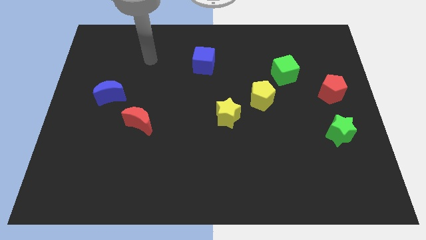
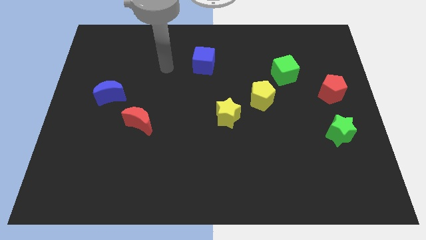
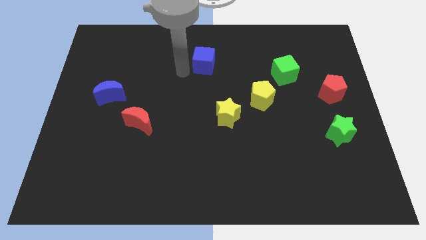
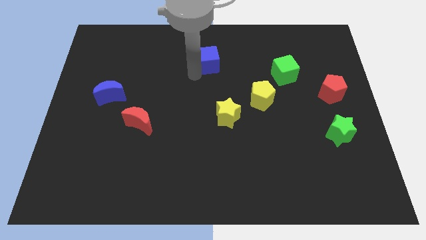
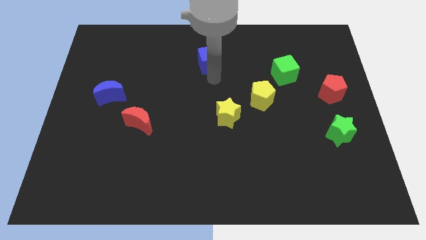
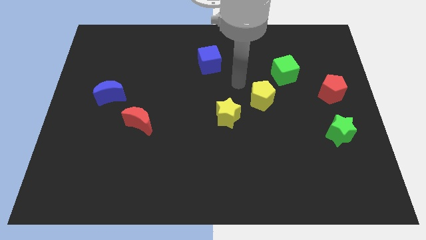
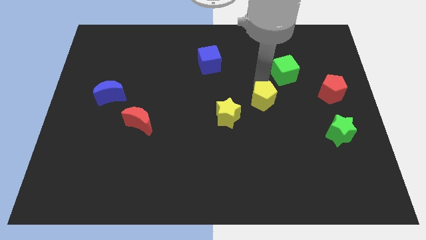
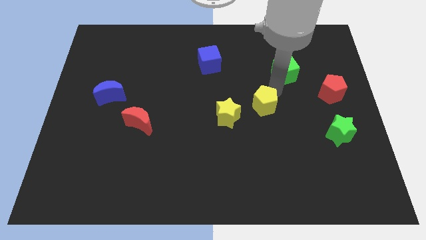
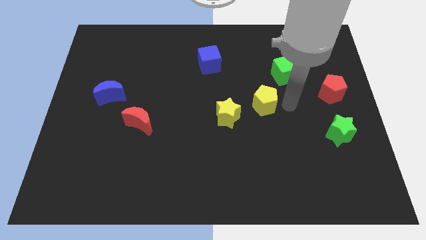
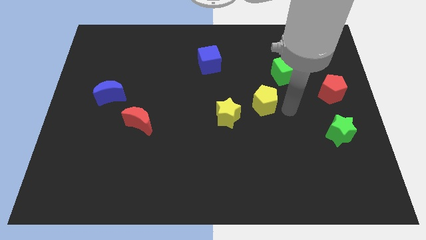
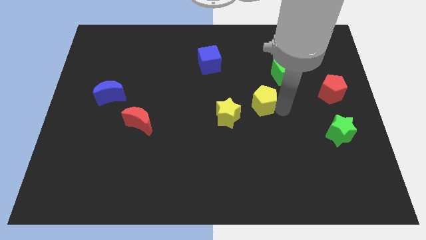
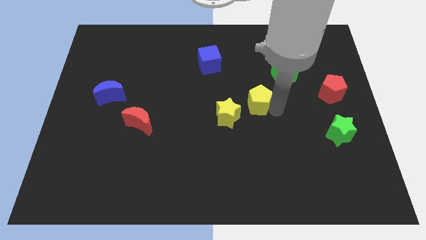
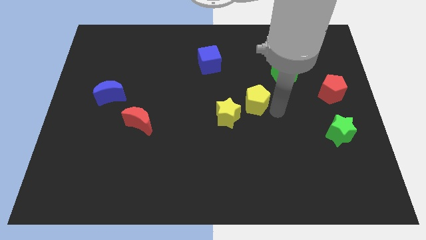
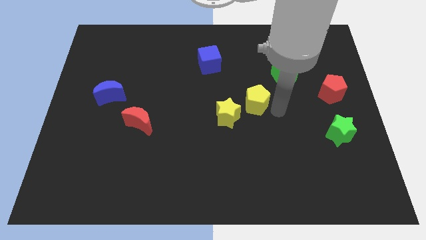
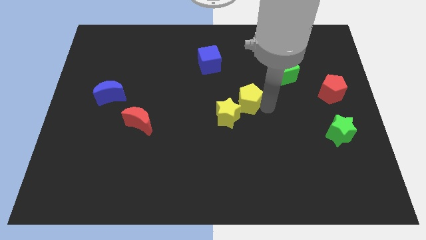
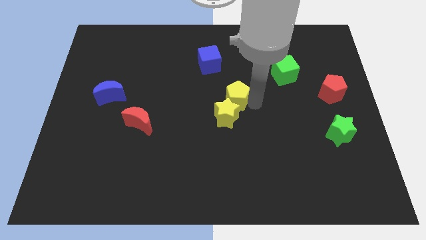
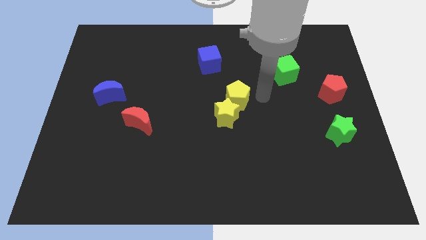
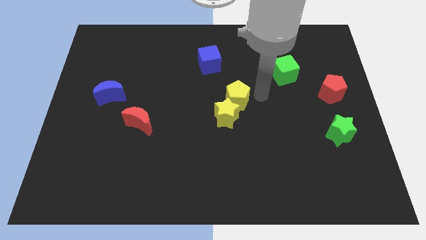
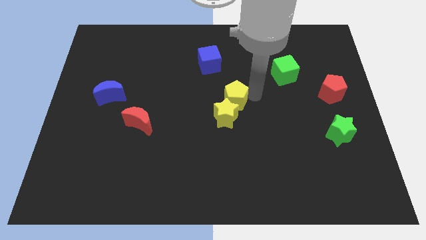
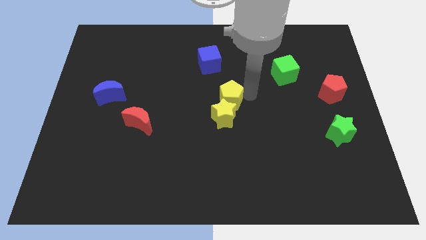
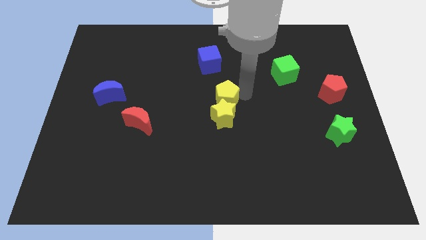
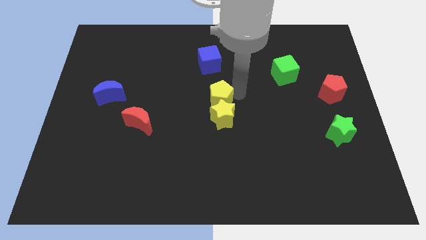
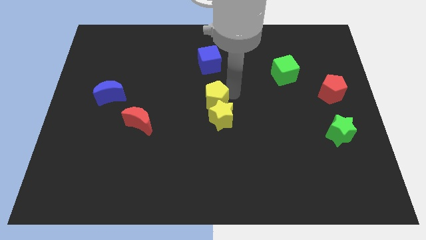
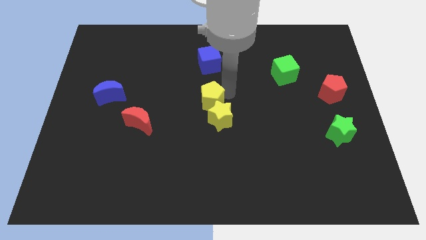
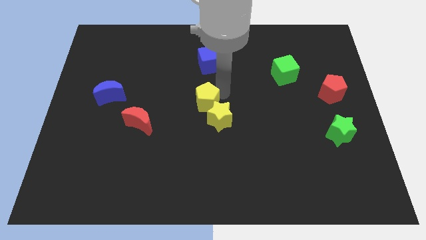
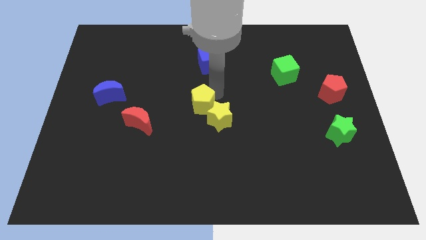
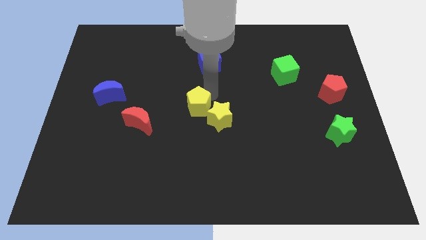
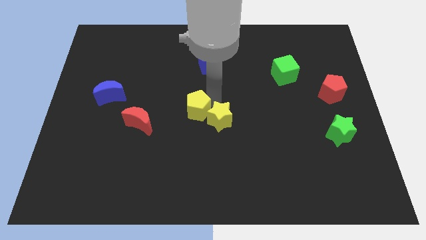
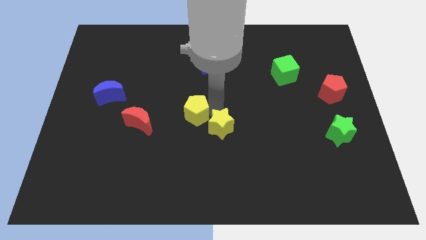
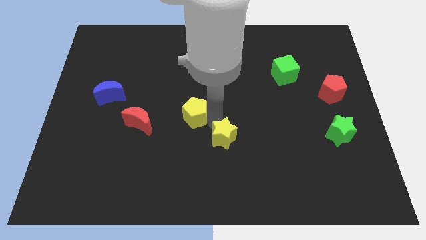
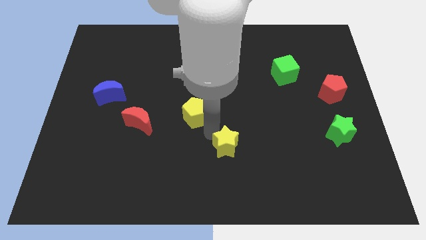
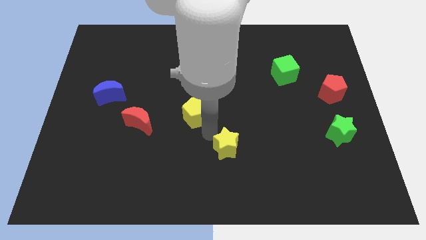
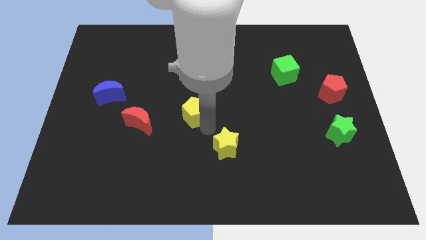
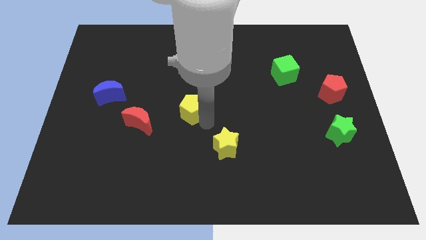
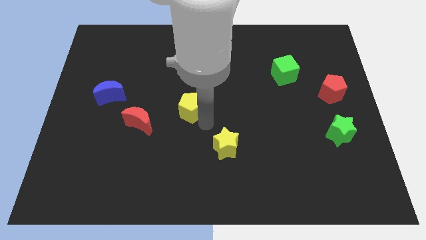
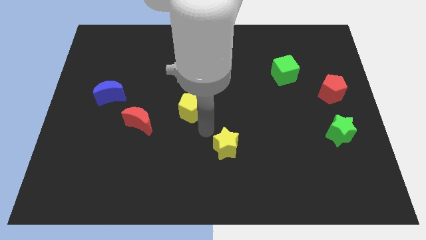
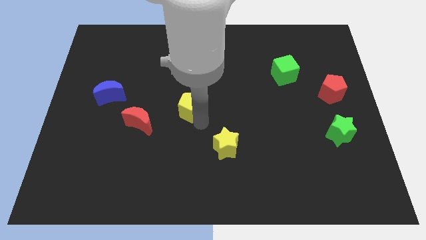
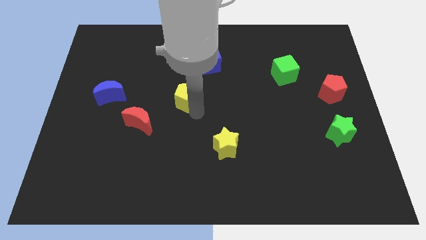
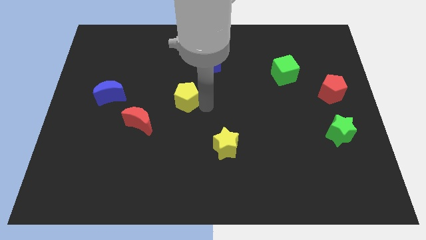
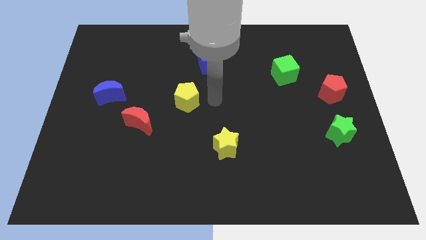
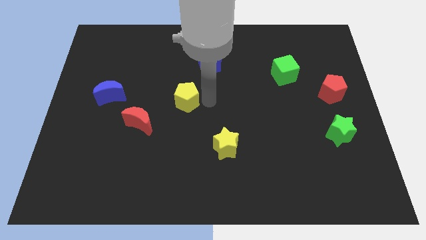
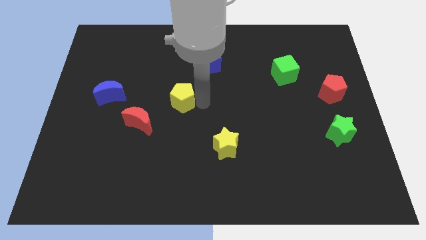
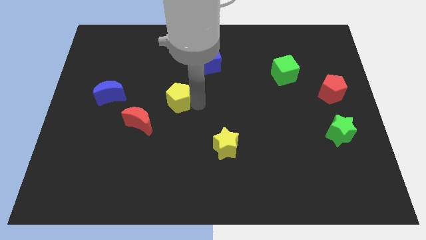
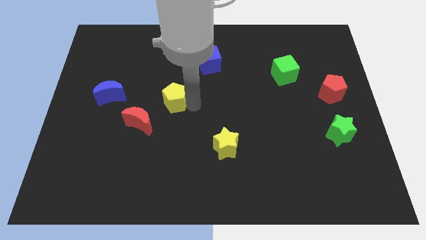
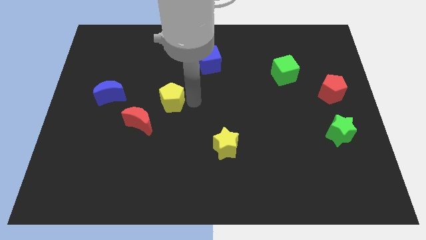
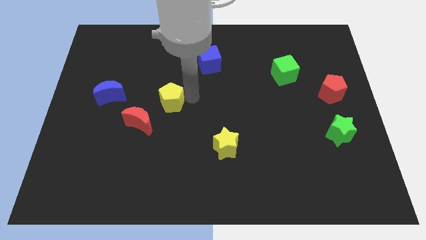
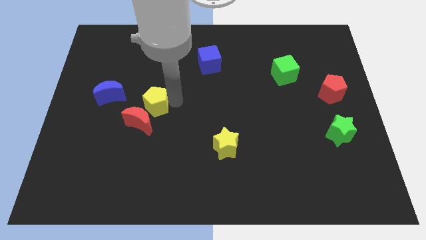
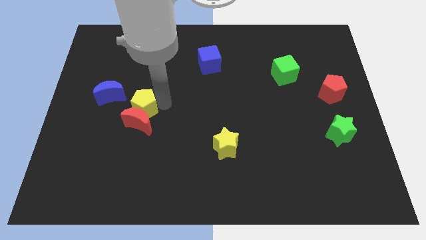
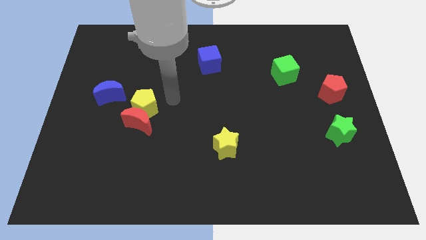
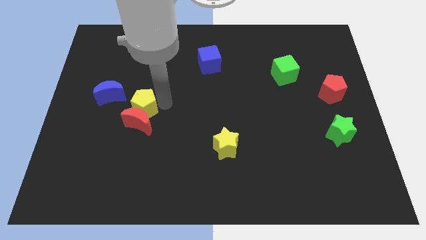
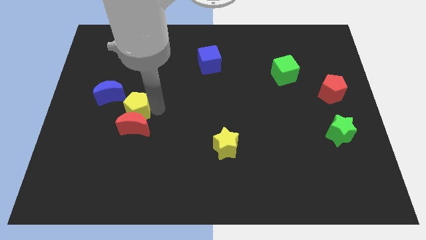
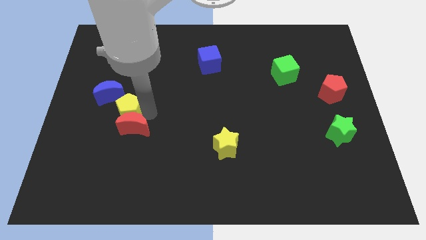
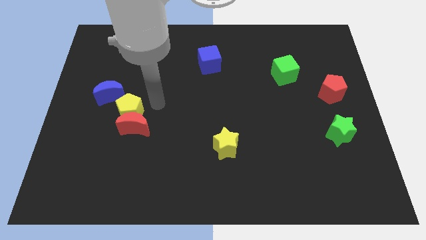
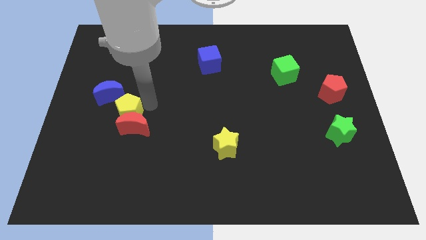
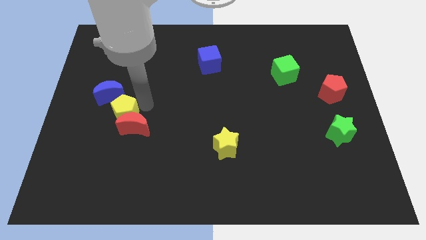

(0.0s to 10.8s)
push the yellow pentagon to the left side of the red moon

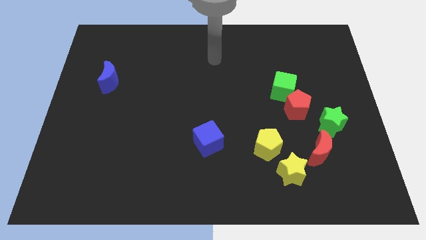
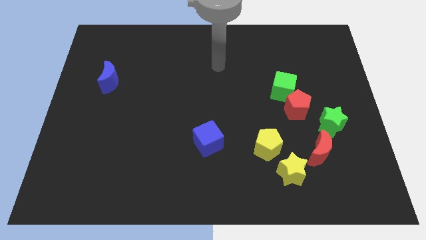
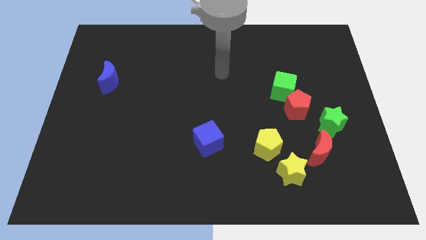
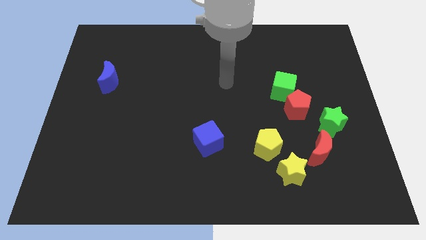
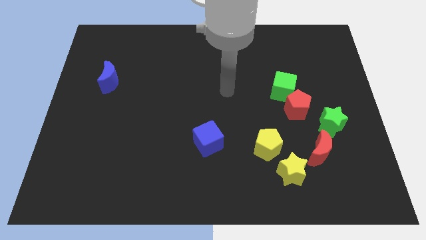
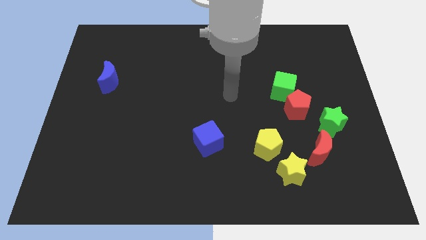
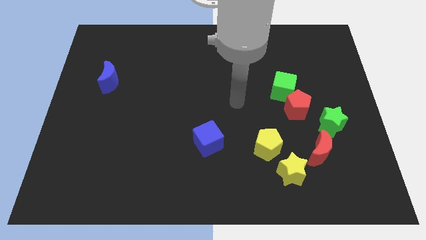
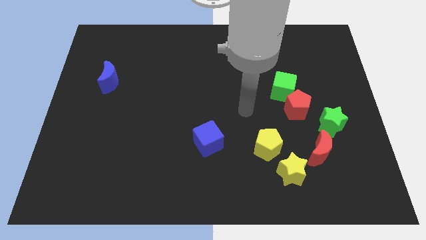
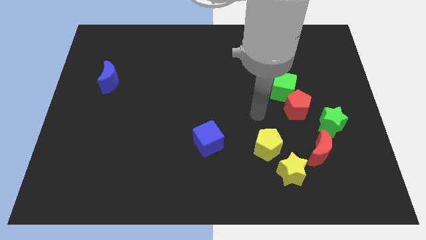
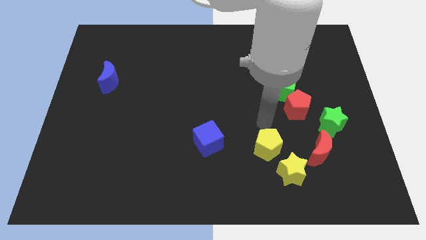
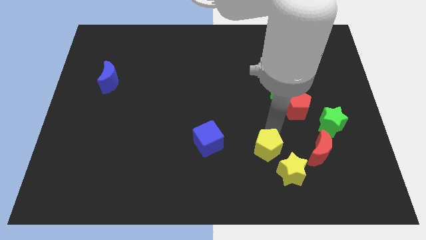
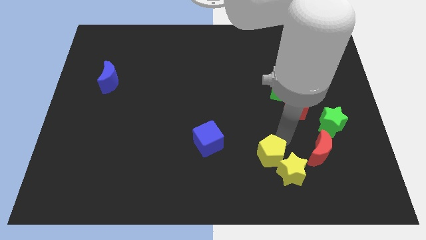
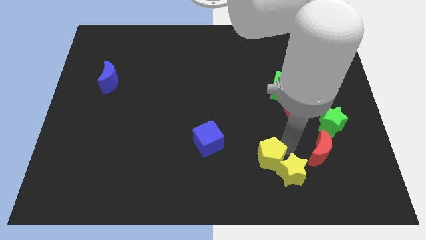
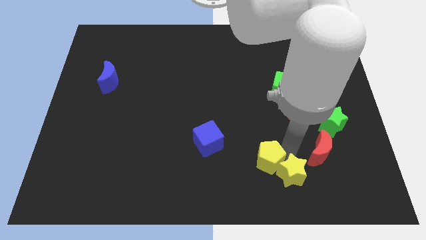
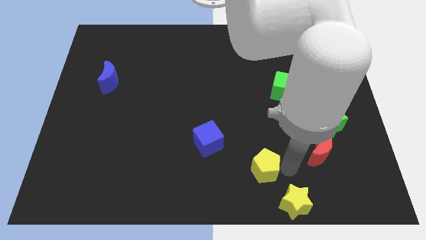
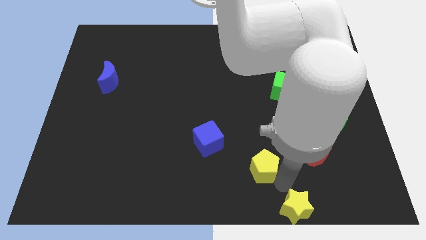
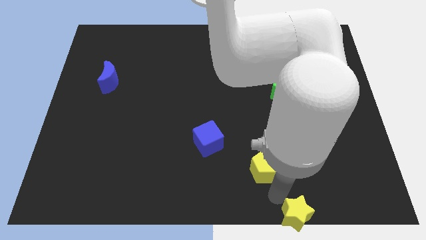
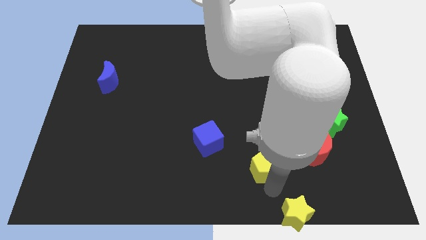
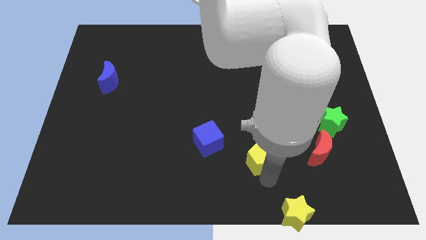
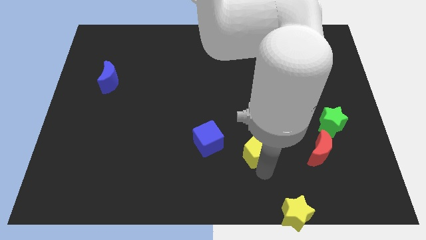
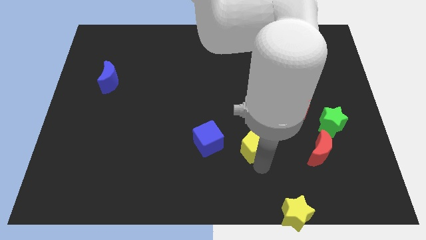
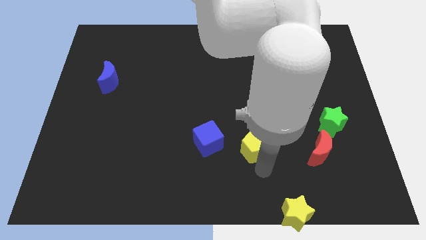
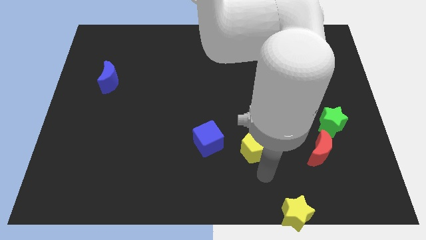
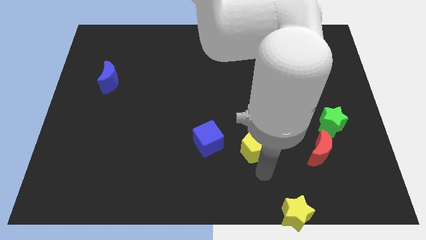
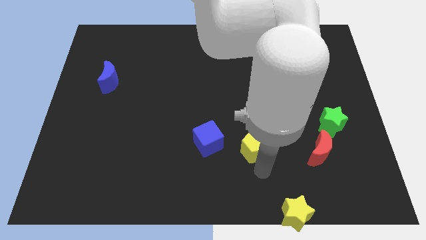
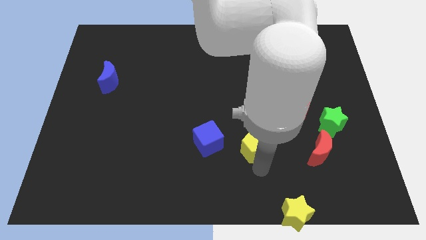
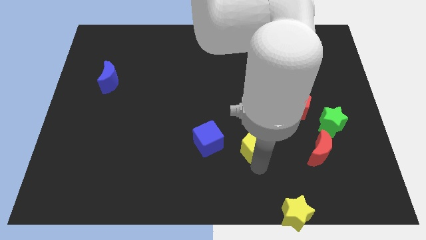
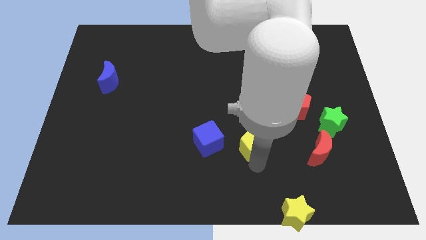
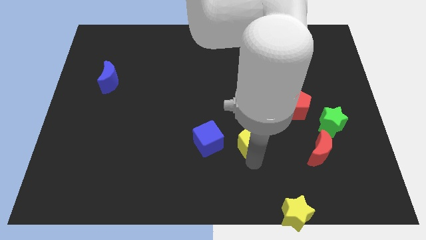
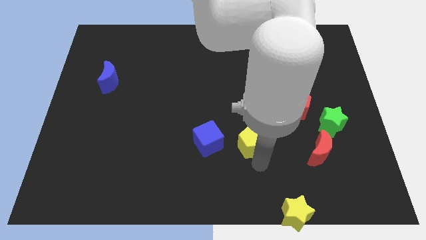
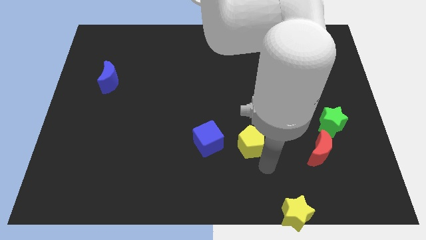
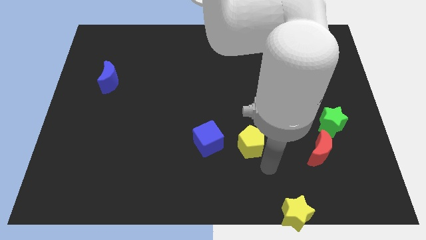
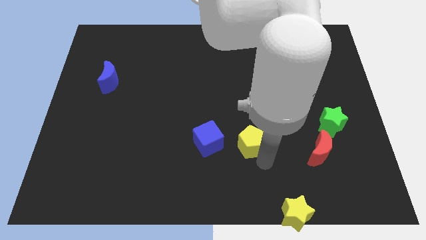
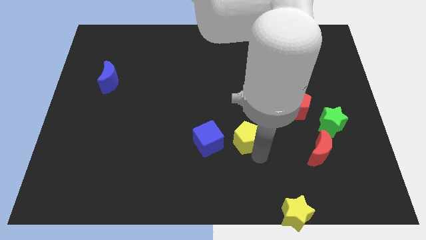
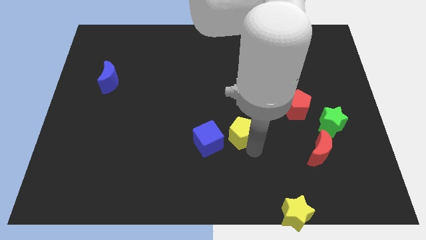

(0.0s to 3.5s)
put the yellow pentagon diagonally up and to the right of the blue cube
